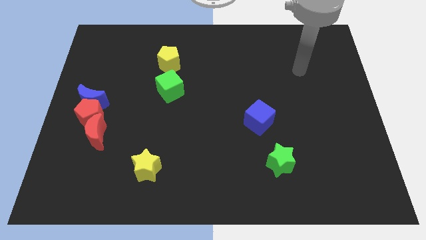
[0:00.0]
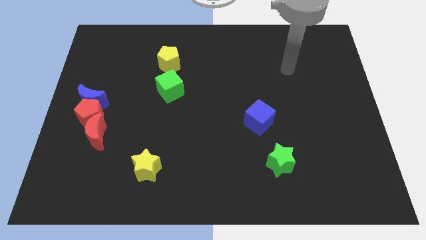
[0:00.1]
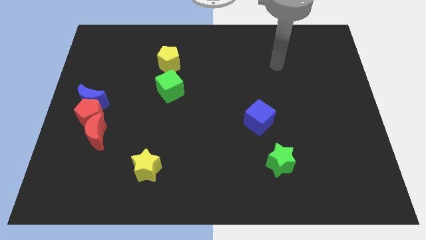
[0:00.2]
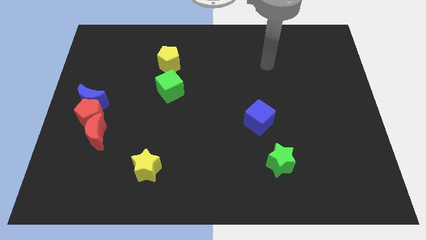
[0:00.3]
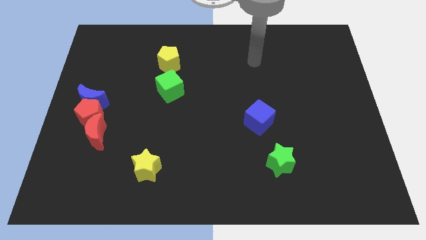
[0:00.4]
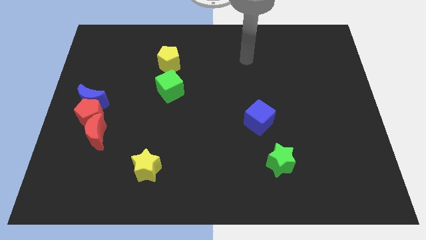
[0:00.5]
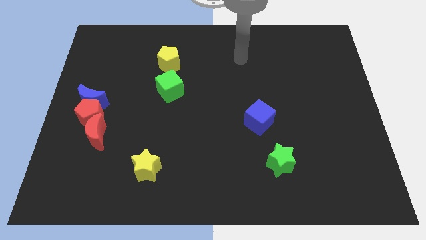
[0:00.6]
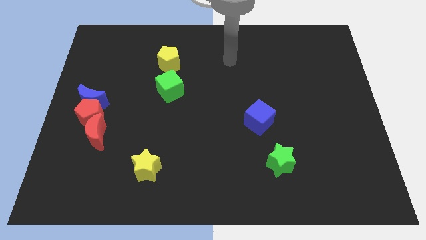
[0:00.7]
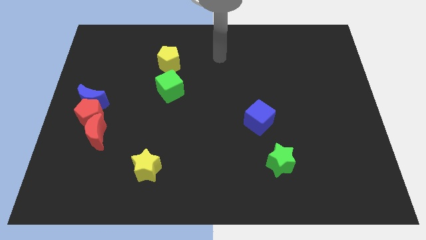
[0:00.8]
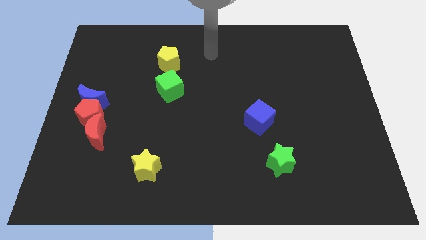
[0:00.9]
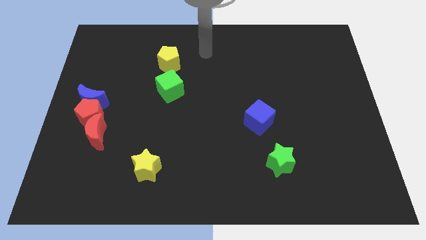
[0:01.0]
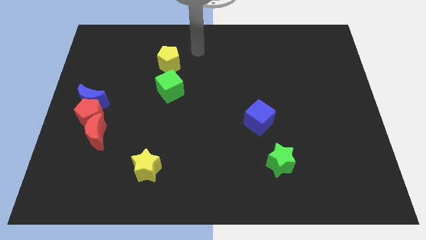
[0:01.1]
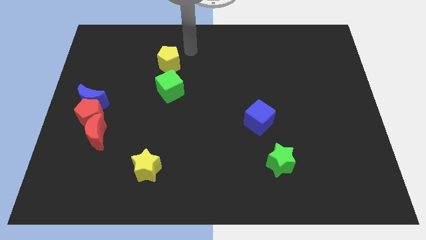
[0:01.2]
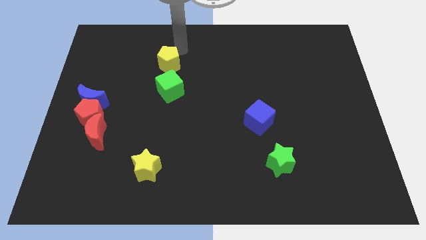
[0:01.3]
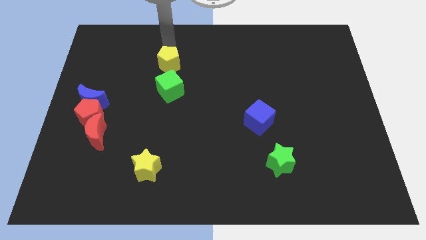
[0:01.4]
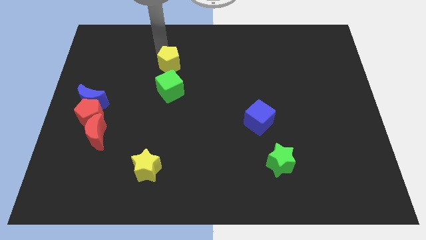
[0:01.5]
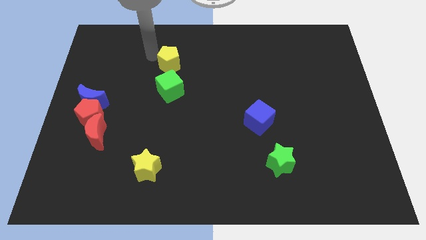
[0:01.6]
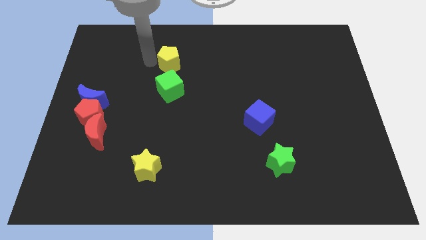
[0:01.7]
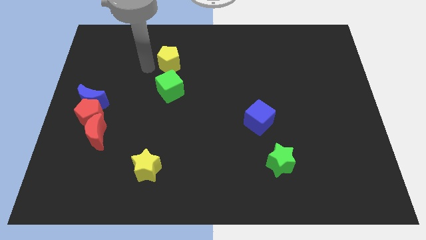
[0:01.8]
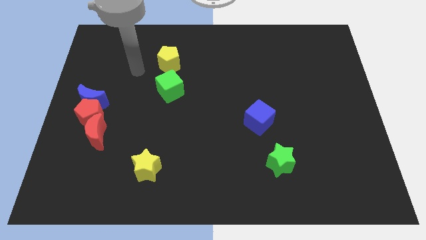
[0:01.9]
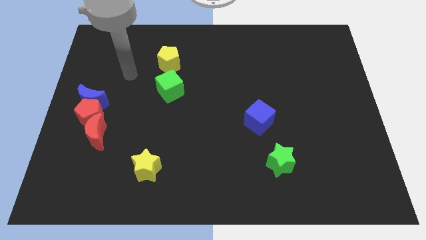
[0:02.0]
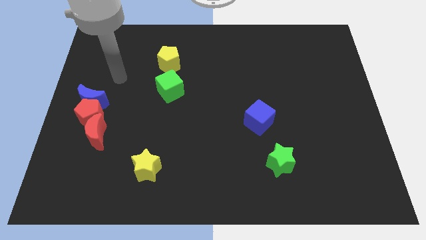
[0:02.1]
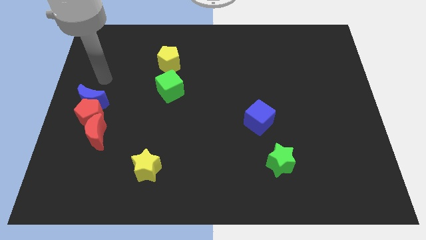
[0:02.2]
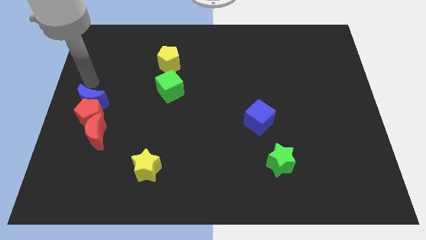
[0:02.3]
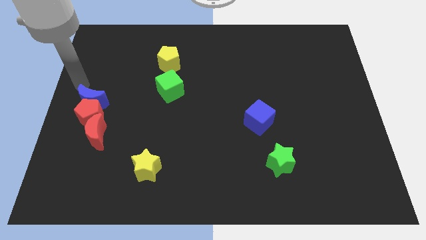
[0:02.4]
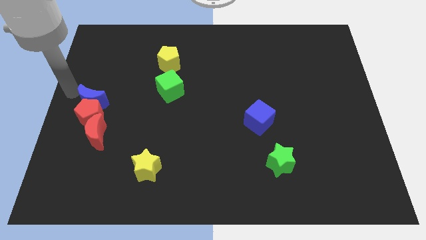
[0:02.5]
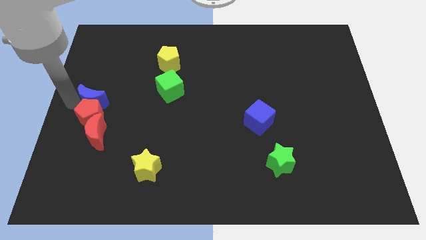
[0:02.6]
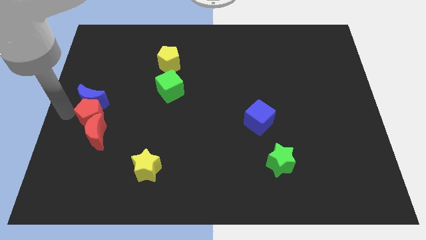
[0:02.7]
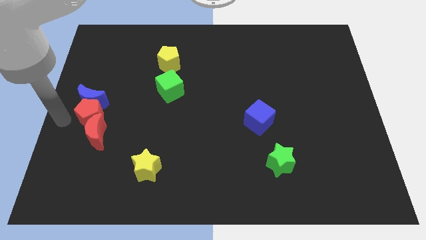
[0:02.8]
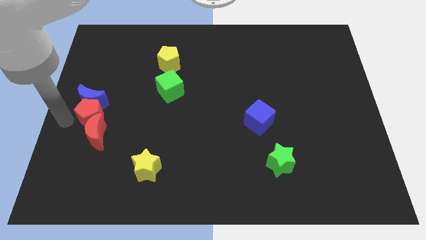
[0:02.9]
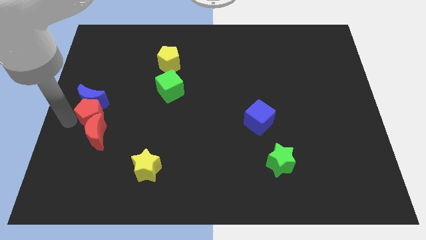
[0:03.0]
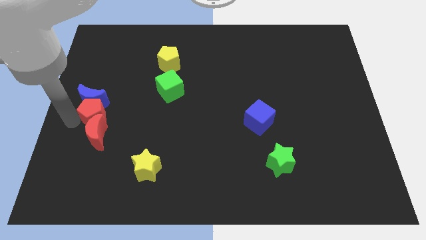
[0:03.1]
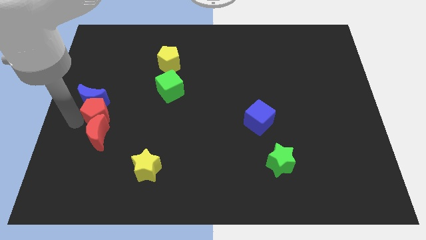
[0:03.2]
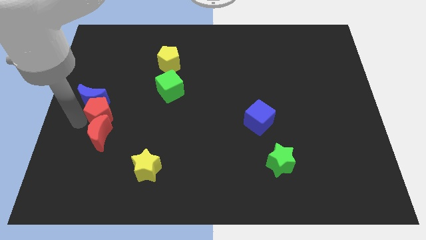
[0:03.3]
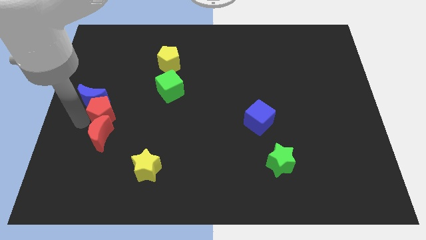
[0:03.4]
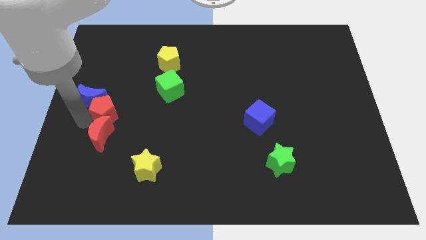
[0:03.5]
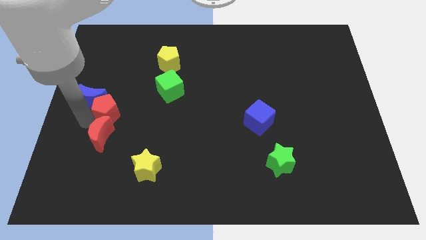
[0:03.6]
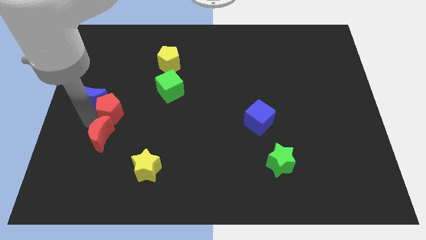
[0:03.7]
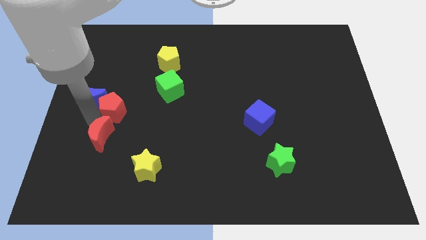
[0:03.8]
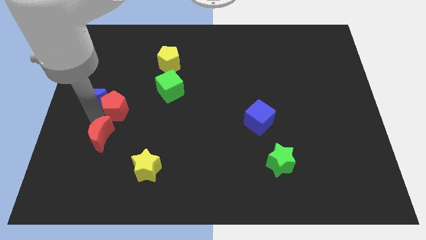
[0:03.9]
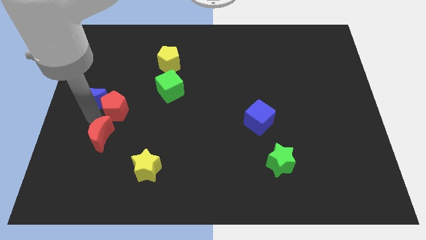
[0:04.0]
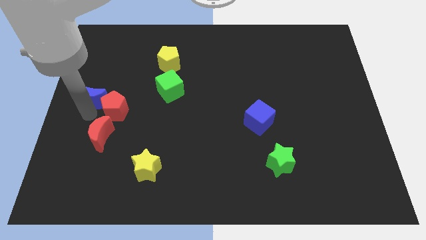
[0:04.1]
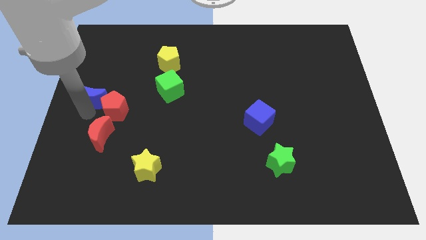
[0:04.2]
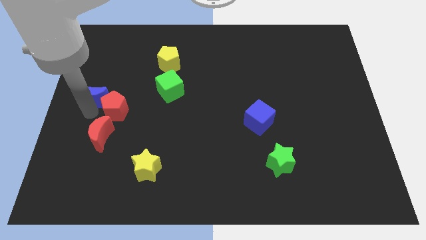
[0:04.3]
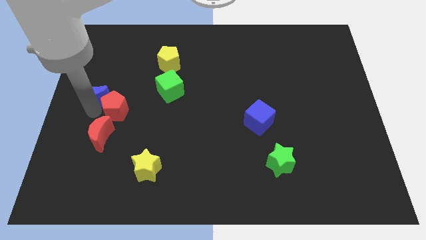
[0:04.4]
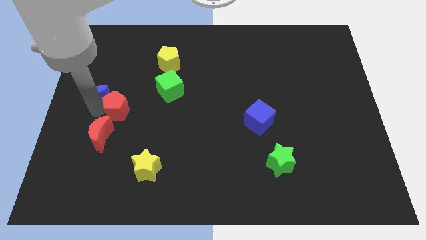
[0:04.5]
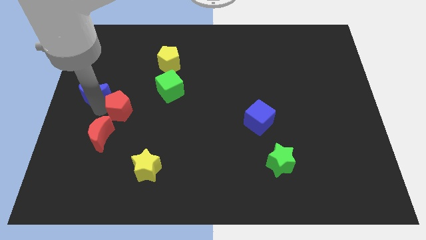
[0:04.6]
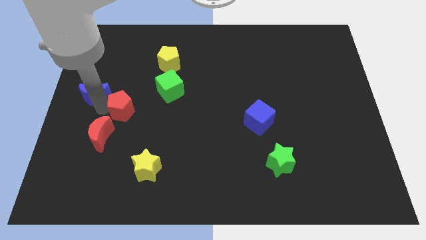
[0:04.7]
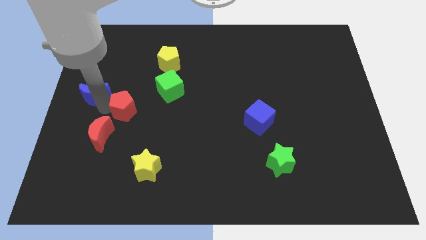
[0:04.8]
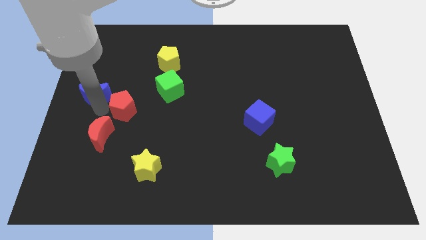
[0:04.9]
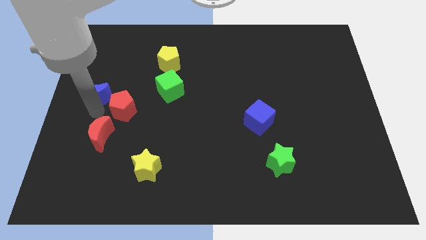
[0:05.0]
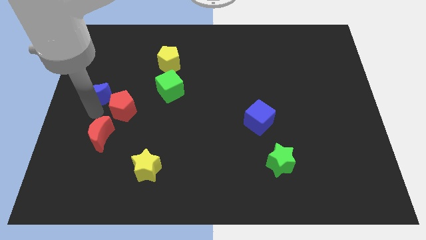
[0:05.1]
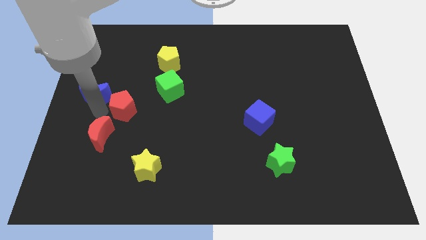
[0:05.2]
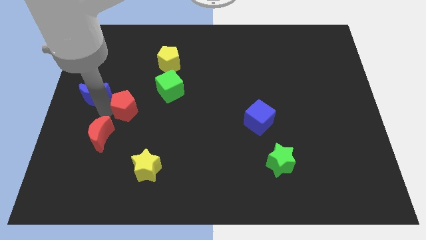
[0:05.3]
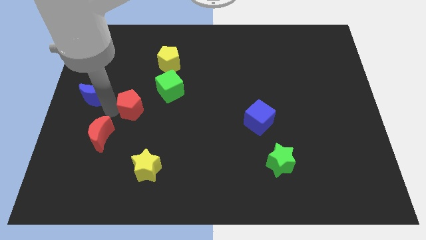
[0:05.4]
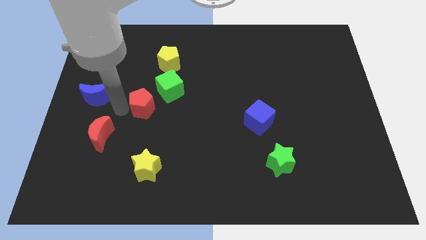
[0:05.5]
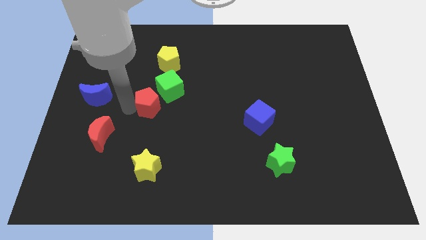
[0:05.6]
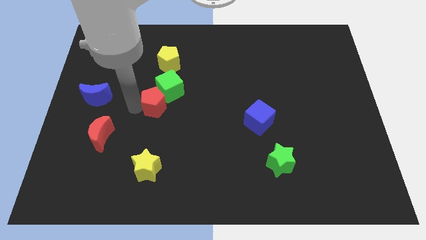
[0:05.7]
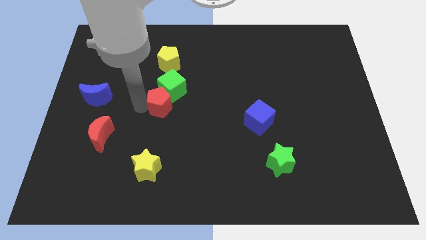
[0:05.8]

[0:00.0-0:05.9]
slide the red pentagon to the center

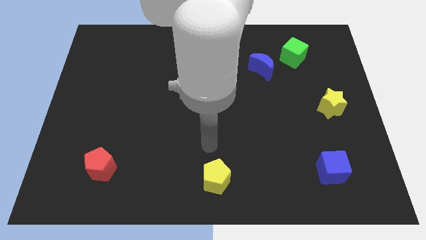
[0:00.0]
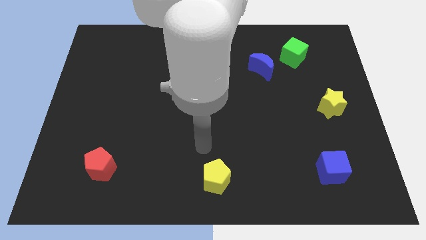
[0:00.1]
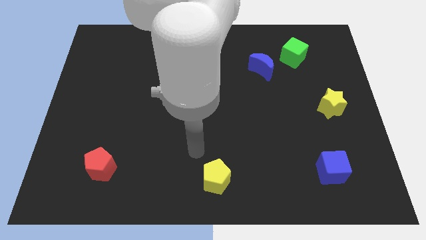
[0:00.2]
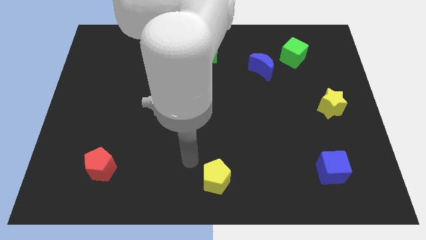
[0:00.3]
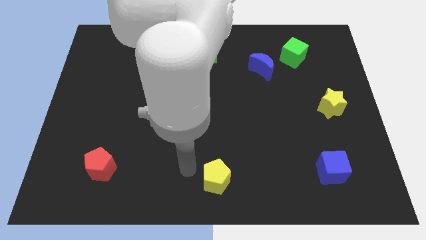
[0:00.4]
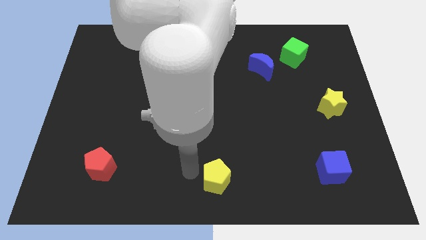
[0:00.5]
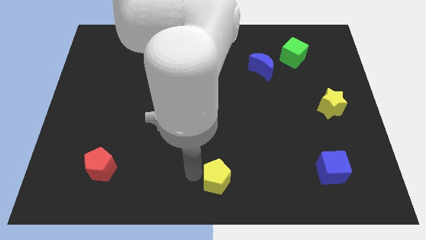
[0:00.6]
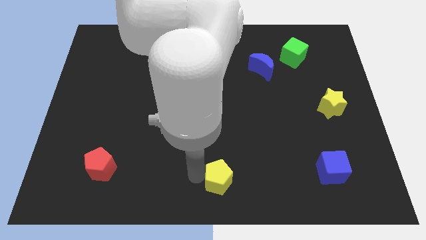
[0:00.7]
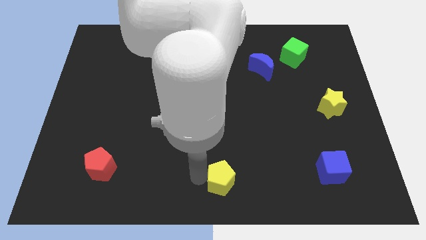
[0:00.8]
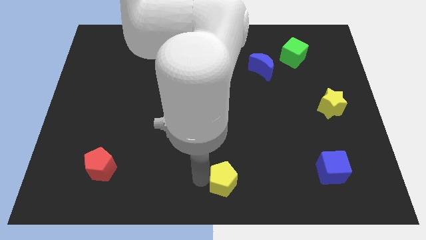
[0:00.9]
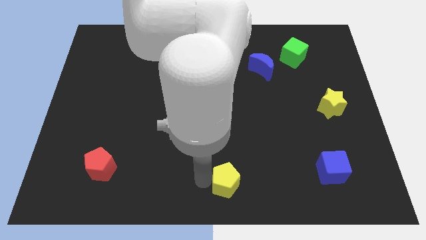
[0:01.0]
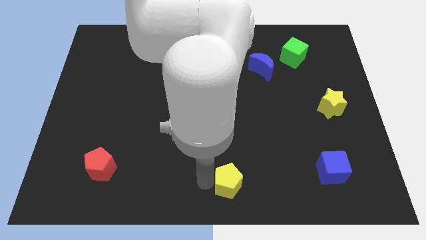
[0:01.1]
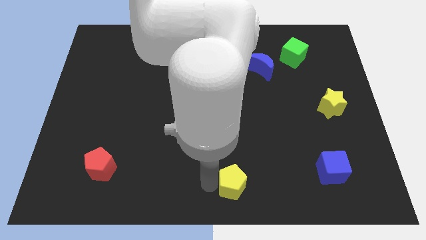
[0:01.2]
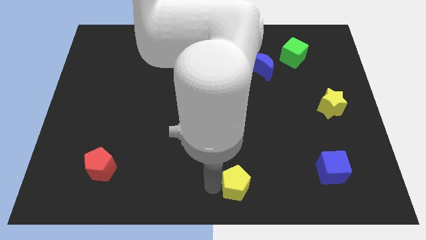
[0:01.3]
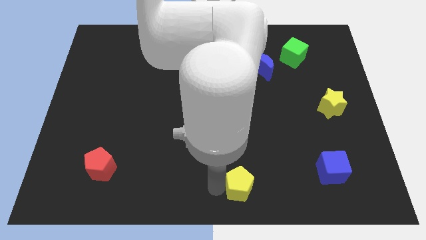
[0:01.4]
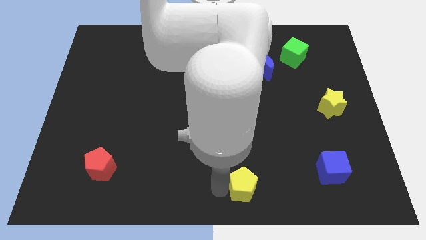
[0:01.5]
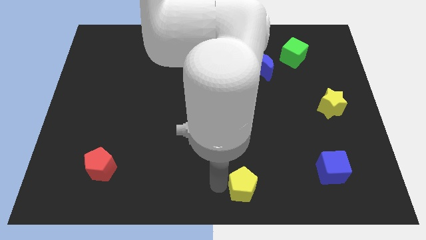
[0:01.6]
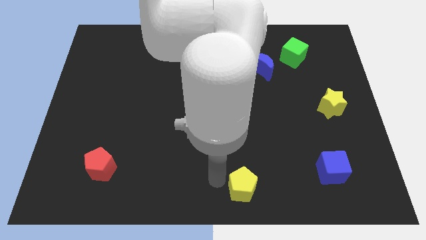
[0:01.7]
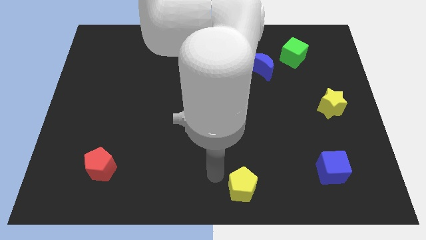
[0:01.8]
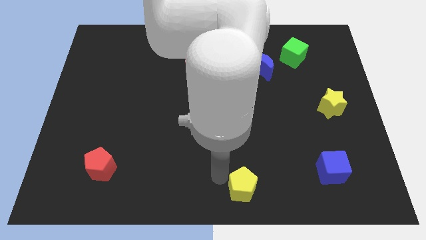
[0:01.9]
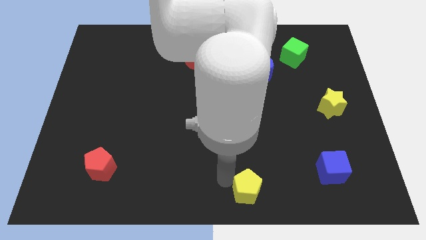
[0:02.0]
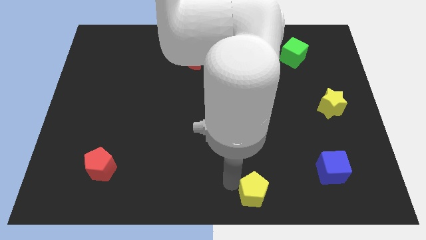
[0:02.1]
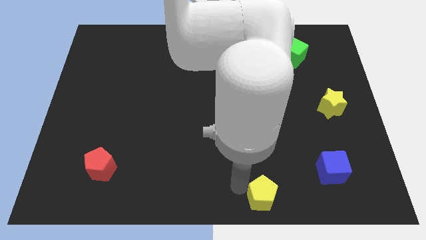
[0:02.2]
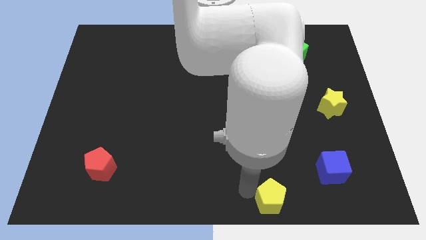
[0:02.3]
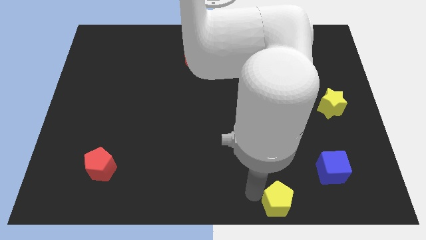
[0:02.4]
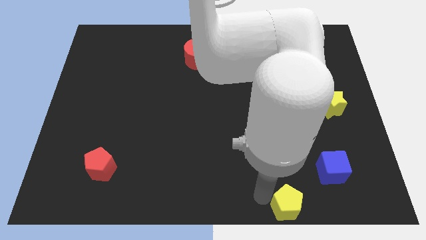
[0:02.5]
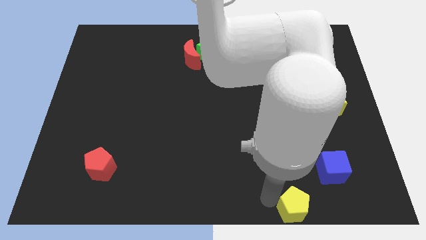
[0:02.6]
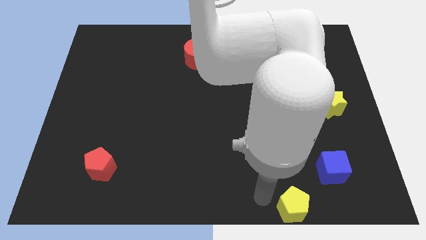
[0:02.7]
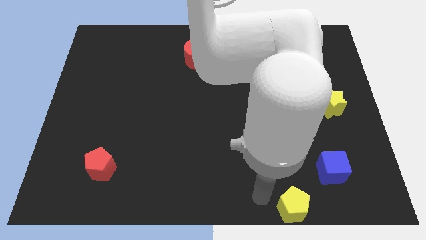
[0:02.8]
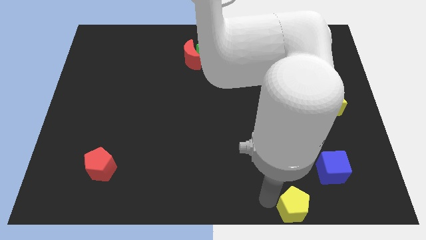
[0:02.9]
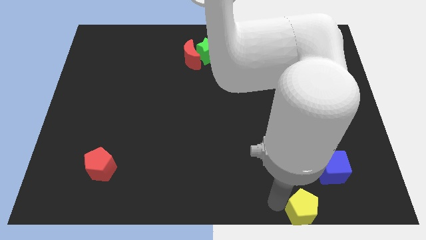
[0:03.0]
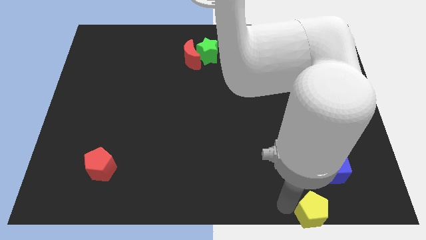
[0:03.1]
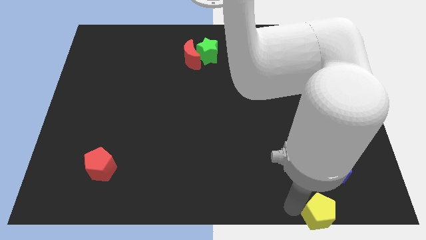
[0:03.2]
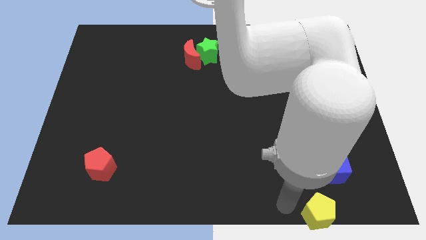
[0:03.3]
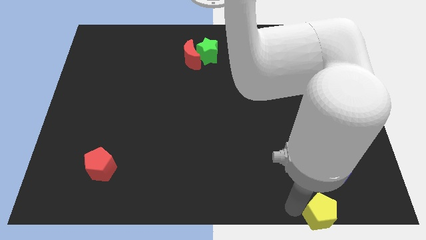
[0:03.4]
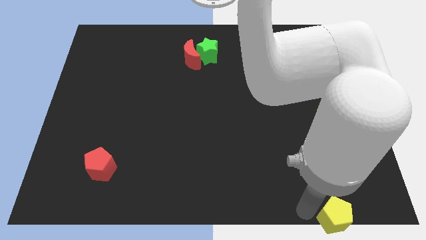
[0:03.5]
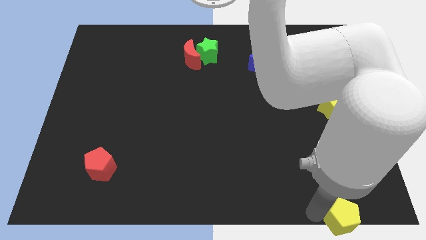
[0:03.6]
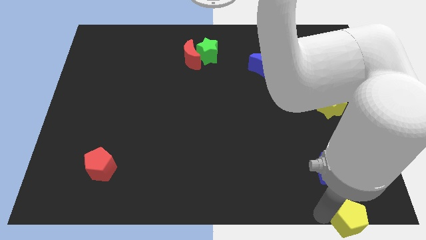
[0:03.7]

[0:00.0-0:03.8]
put the yellow pentagon to the bottom right of the board
